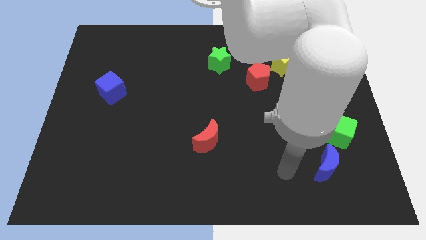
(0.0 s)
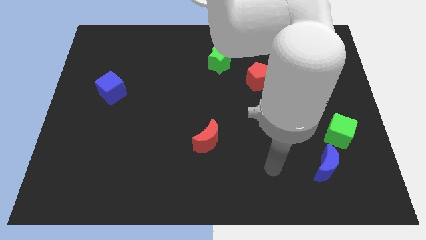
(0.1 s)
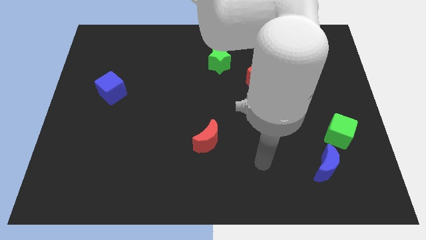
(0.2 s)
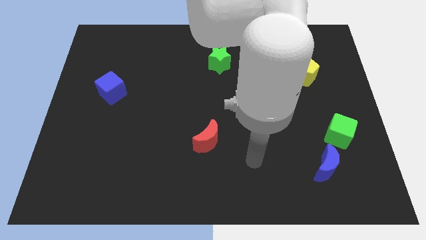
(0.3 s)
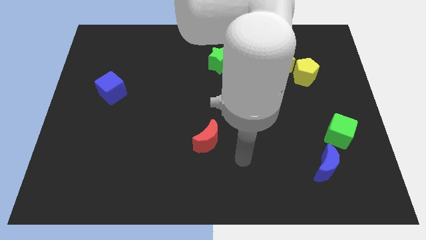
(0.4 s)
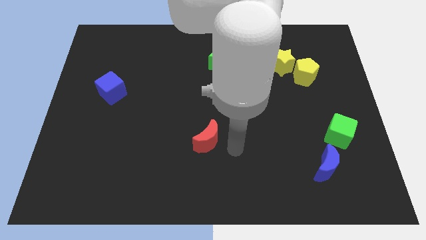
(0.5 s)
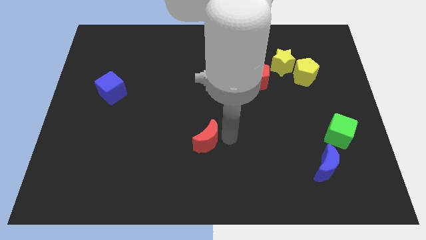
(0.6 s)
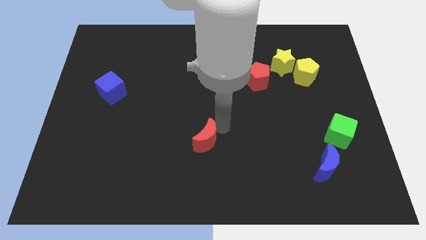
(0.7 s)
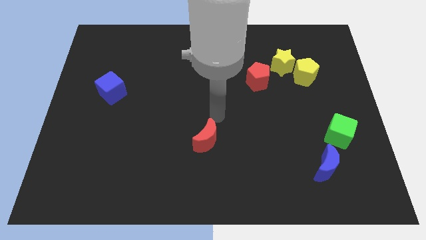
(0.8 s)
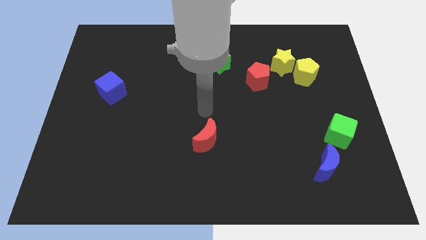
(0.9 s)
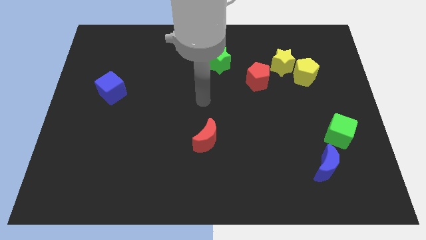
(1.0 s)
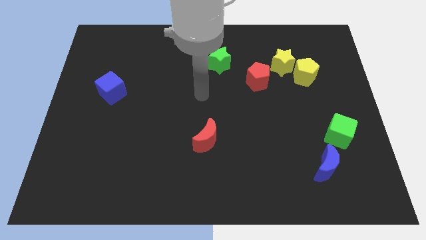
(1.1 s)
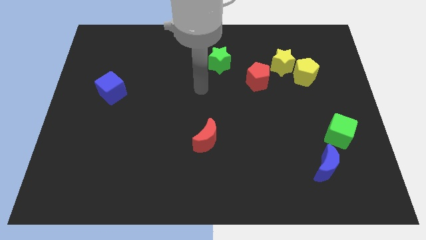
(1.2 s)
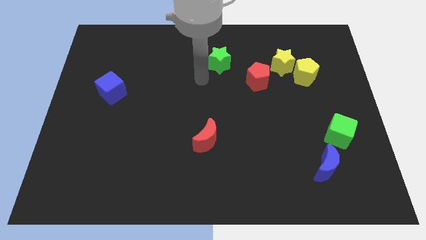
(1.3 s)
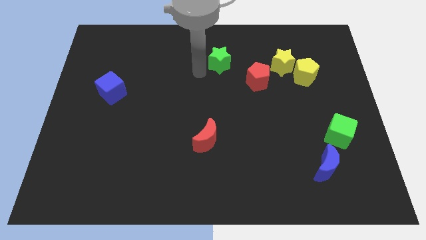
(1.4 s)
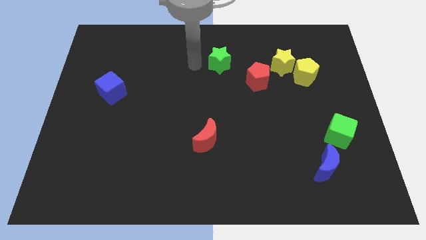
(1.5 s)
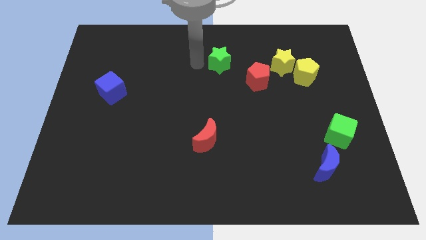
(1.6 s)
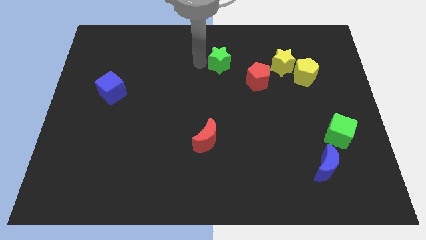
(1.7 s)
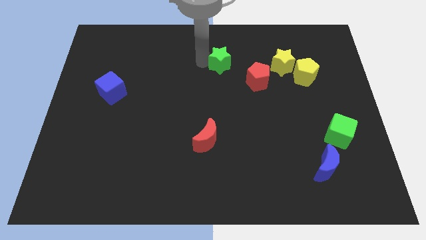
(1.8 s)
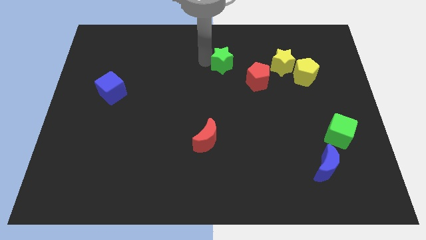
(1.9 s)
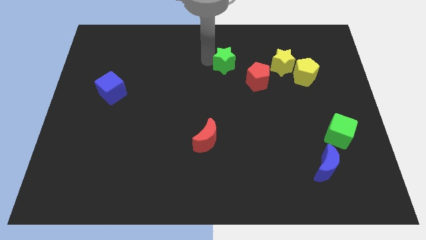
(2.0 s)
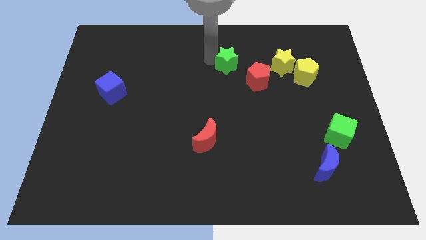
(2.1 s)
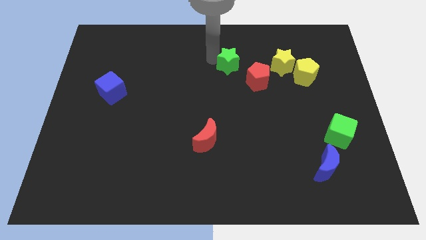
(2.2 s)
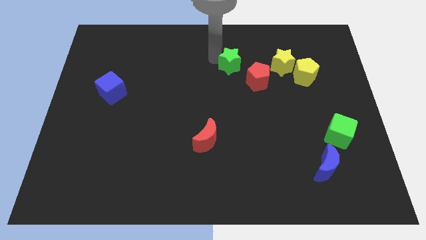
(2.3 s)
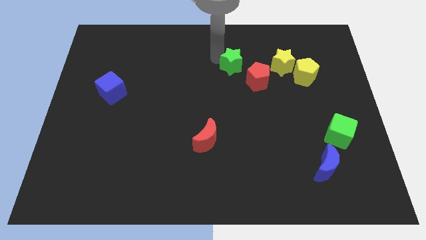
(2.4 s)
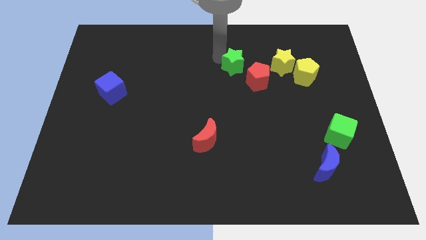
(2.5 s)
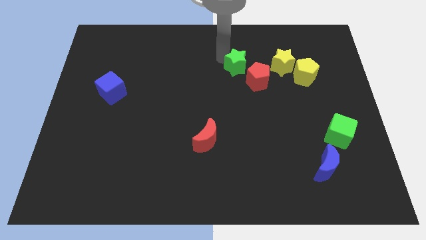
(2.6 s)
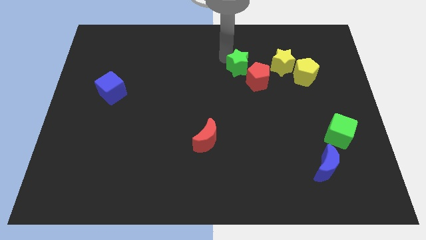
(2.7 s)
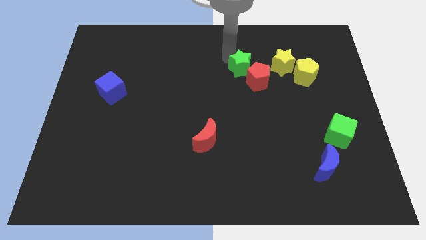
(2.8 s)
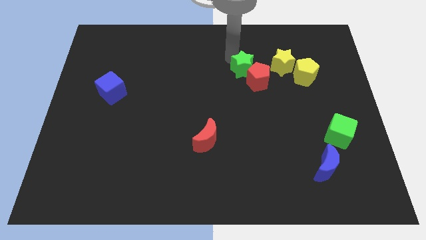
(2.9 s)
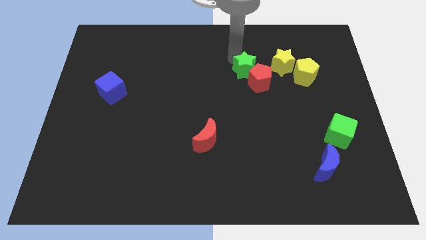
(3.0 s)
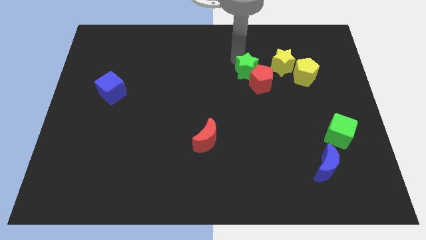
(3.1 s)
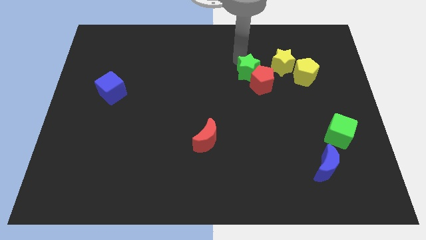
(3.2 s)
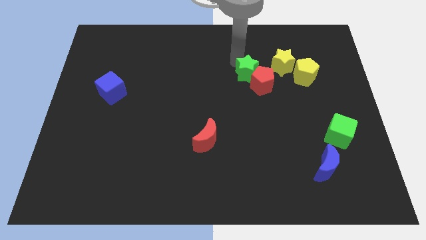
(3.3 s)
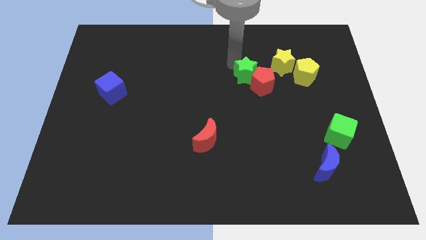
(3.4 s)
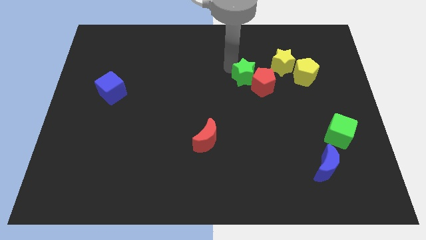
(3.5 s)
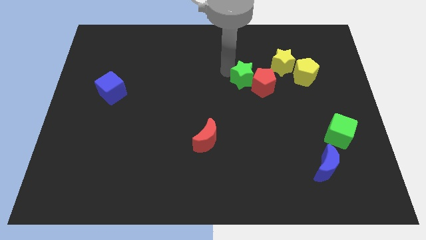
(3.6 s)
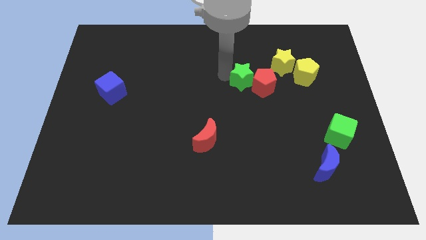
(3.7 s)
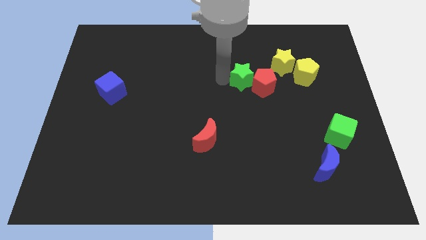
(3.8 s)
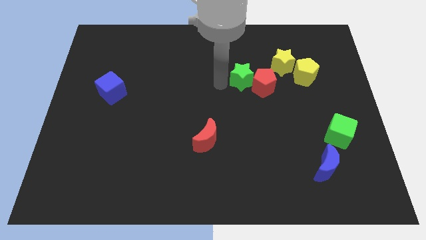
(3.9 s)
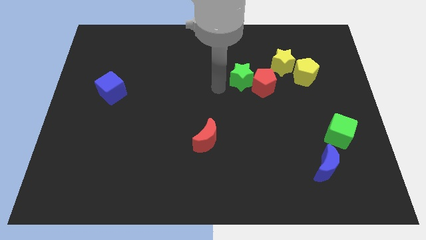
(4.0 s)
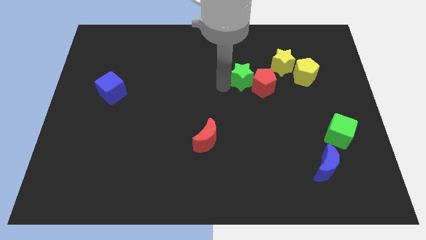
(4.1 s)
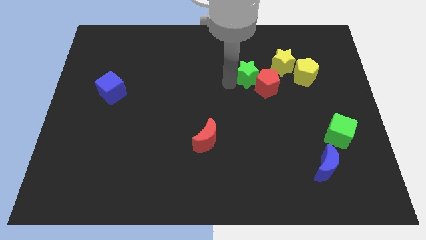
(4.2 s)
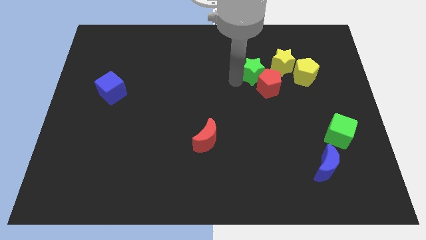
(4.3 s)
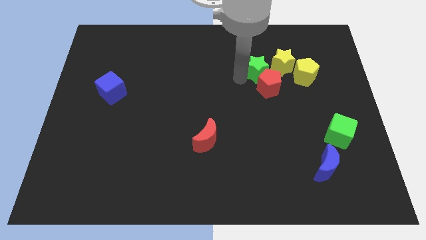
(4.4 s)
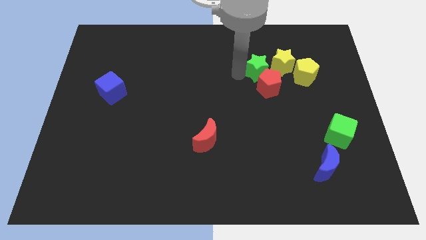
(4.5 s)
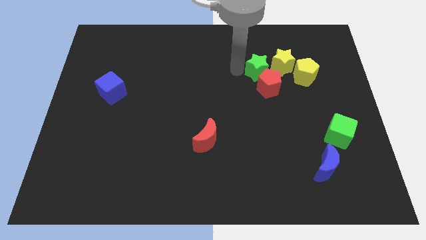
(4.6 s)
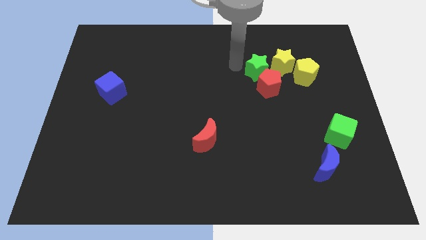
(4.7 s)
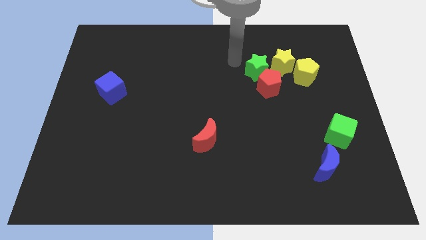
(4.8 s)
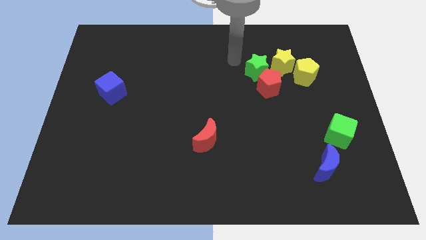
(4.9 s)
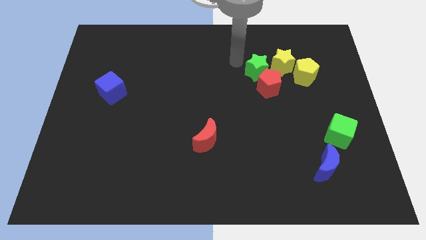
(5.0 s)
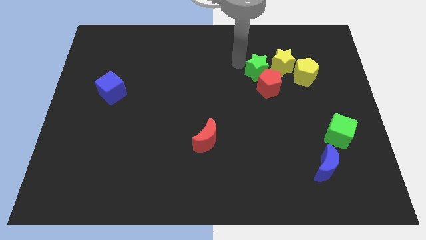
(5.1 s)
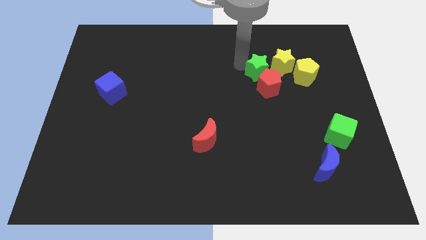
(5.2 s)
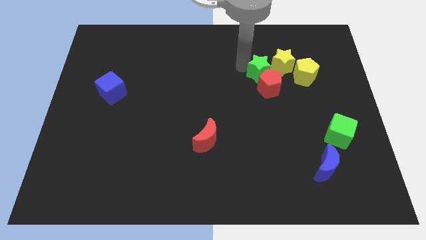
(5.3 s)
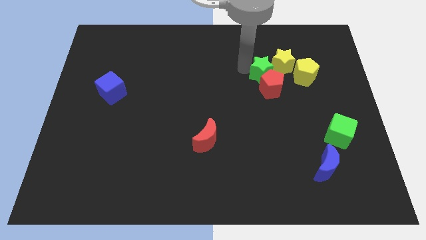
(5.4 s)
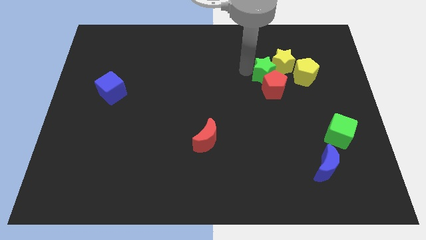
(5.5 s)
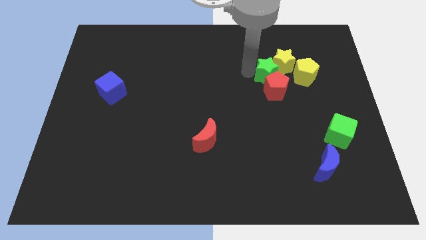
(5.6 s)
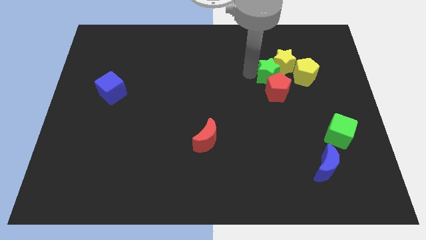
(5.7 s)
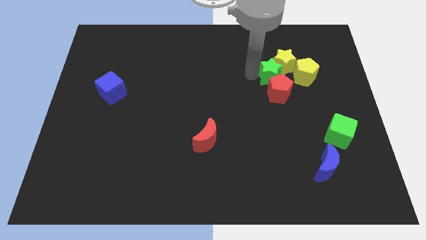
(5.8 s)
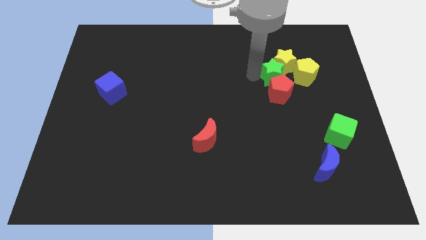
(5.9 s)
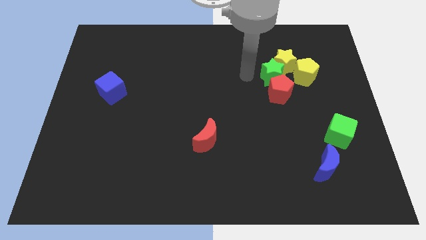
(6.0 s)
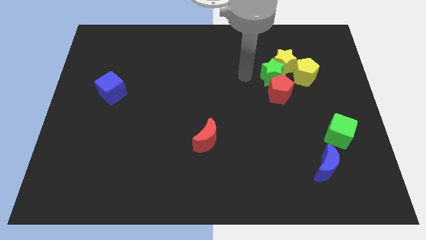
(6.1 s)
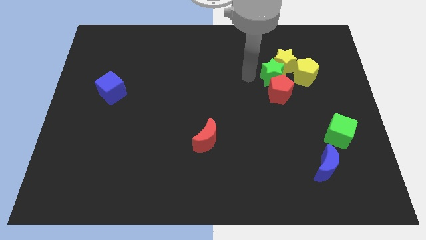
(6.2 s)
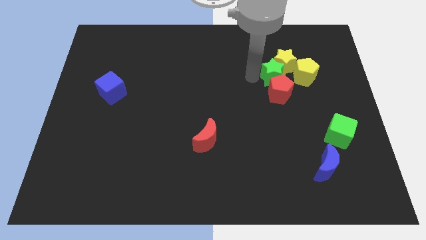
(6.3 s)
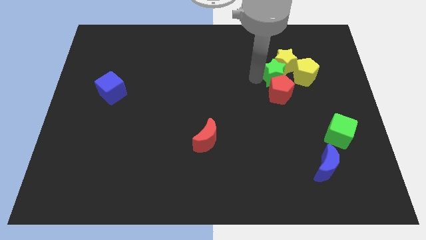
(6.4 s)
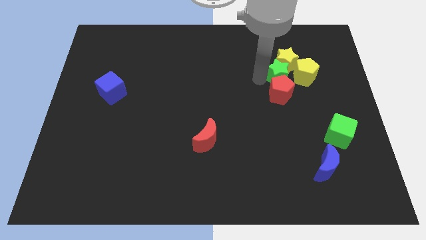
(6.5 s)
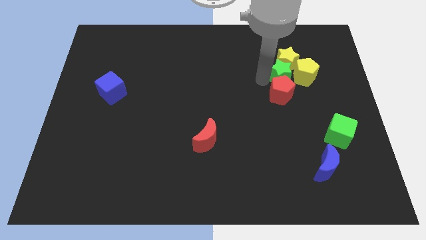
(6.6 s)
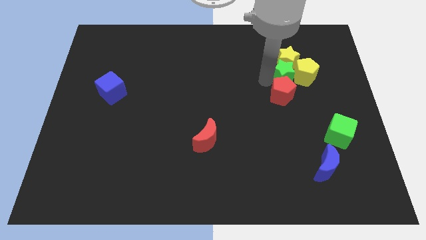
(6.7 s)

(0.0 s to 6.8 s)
move the green star to the yellow pentagon
